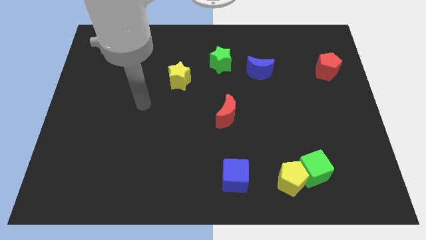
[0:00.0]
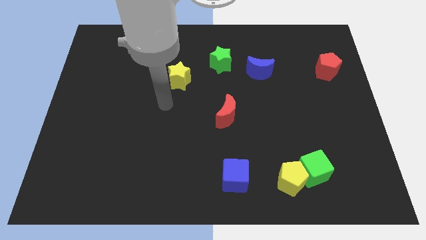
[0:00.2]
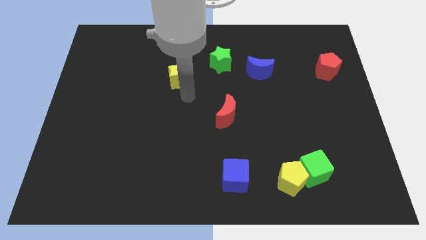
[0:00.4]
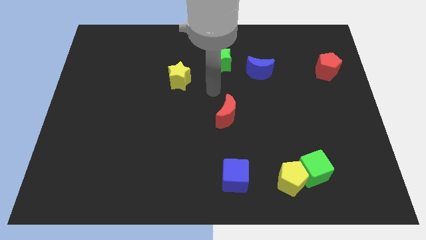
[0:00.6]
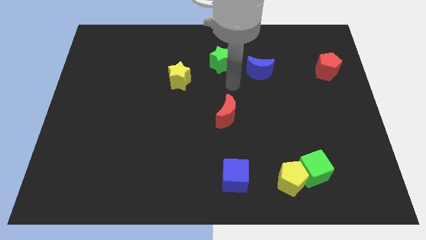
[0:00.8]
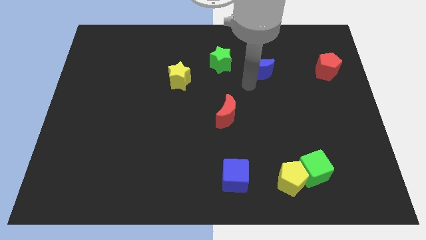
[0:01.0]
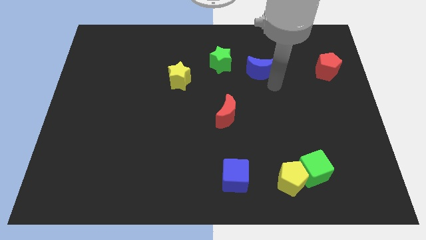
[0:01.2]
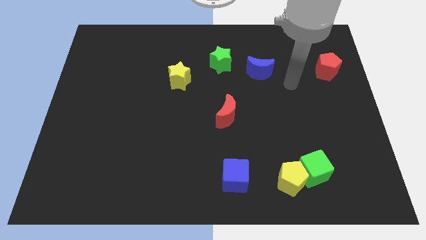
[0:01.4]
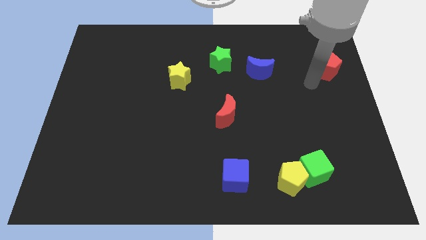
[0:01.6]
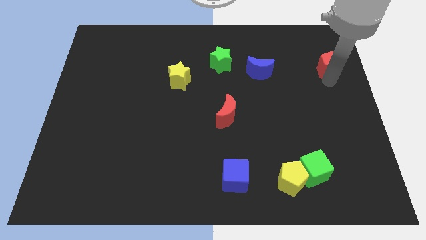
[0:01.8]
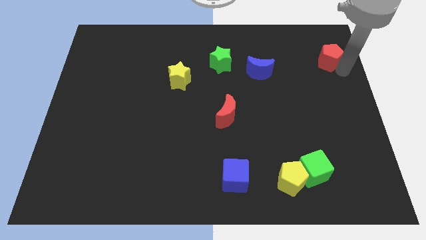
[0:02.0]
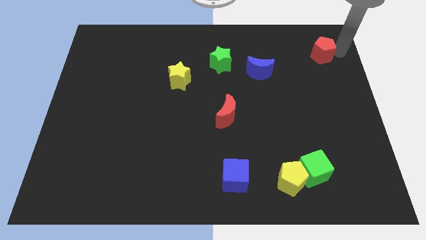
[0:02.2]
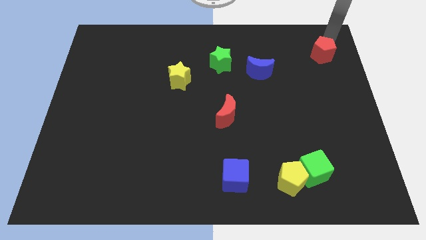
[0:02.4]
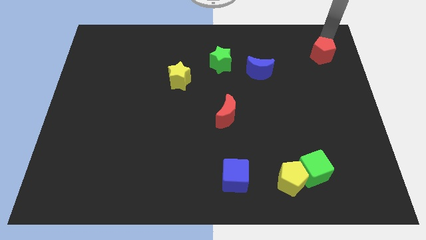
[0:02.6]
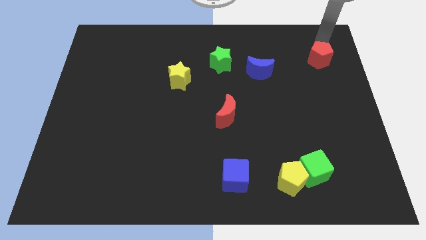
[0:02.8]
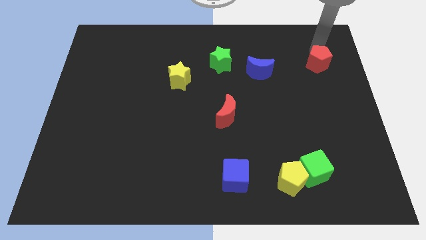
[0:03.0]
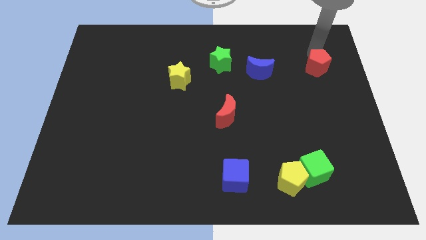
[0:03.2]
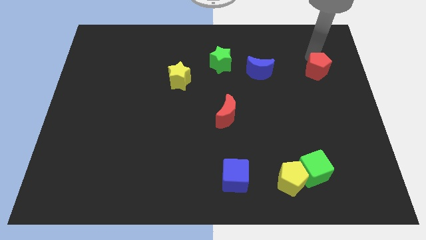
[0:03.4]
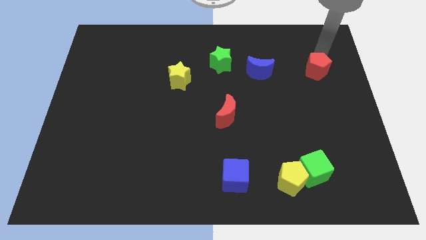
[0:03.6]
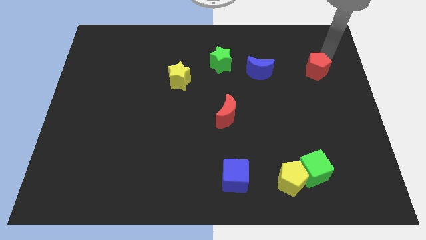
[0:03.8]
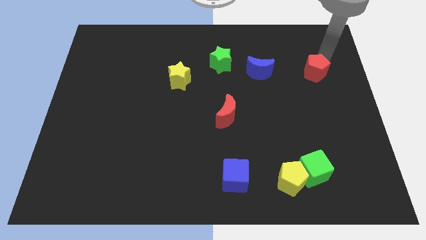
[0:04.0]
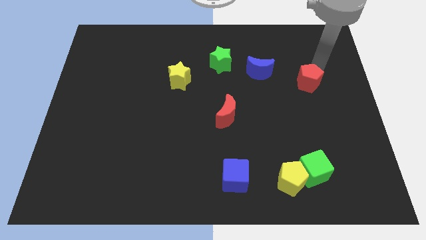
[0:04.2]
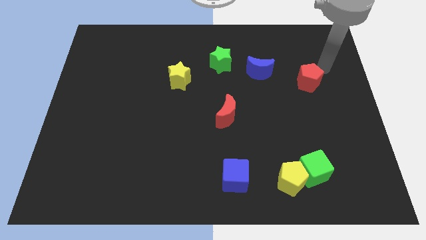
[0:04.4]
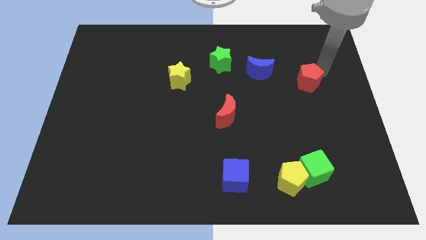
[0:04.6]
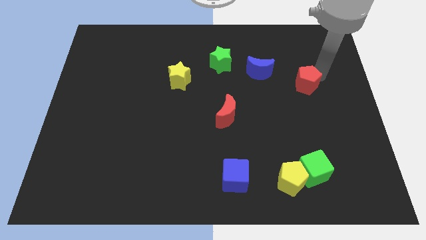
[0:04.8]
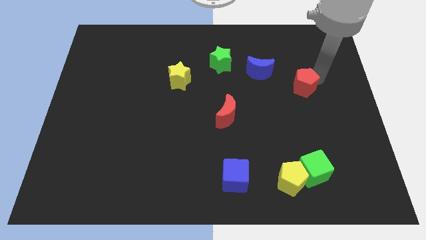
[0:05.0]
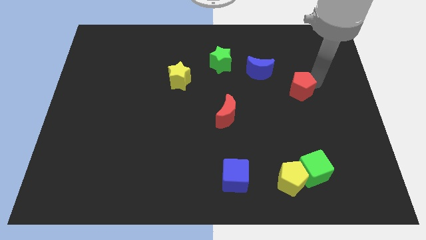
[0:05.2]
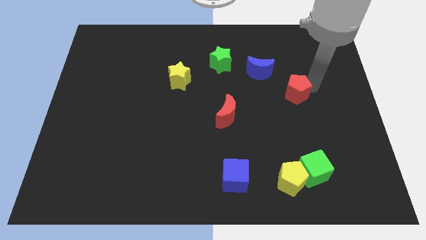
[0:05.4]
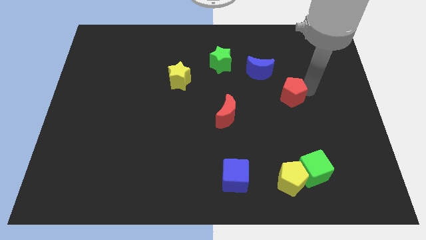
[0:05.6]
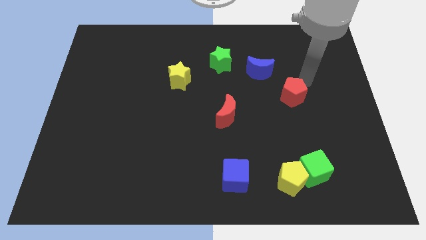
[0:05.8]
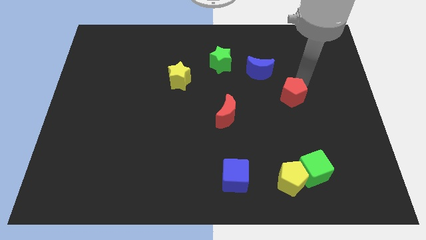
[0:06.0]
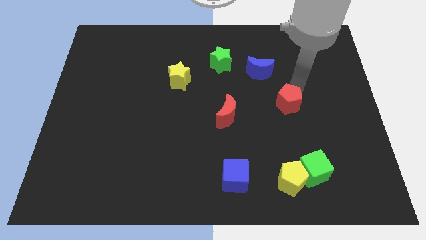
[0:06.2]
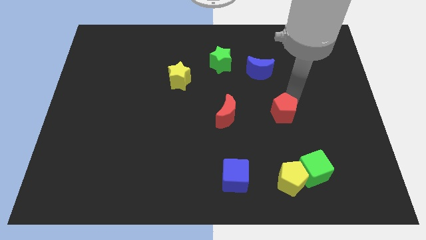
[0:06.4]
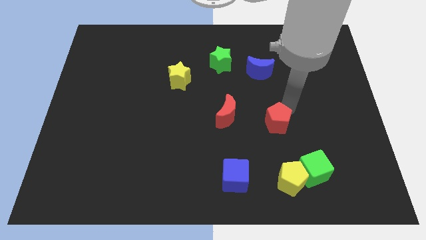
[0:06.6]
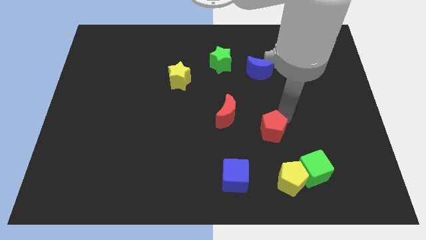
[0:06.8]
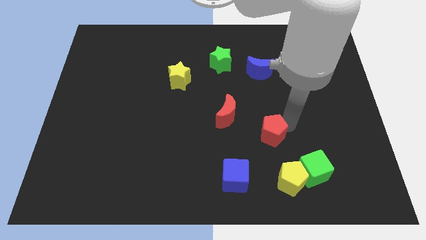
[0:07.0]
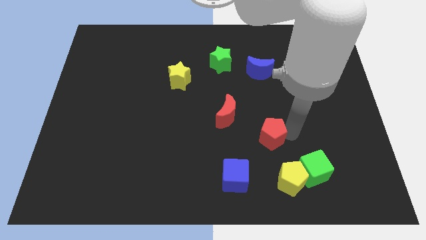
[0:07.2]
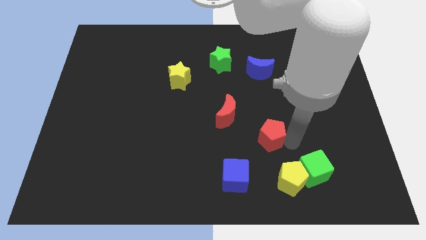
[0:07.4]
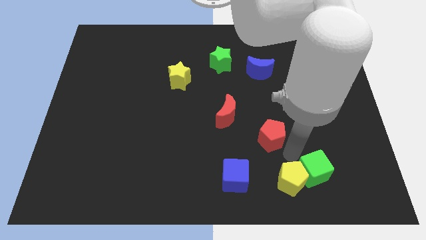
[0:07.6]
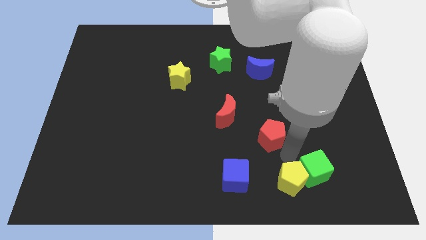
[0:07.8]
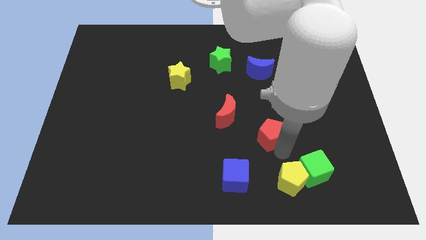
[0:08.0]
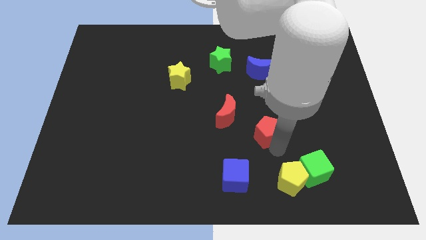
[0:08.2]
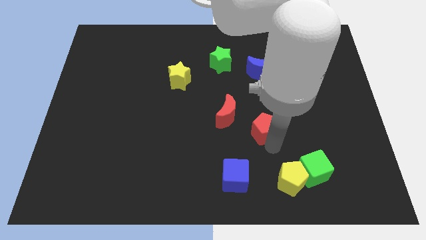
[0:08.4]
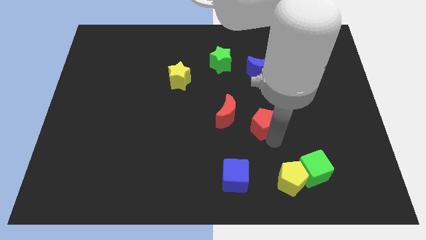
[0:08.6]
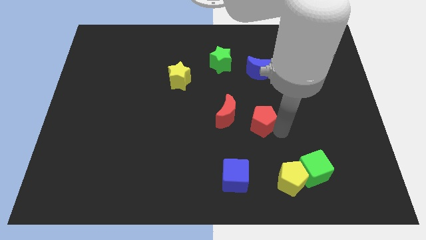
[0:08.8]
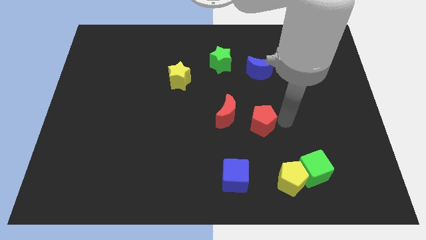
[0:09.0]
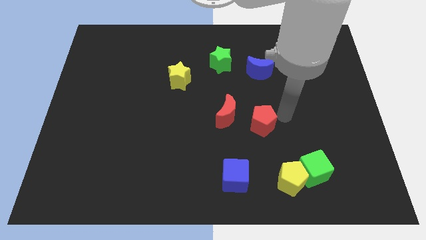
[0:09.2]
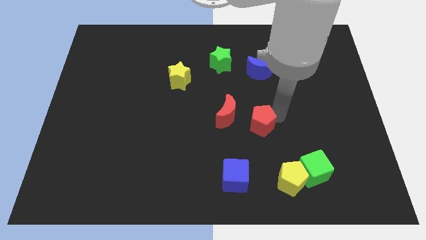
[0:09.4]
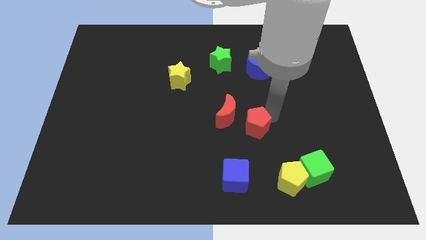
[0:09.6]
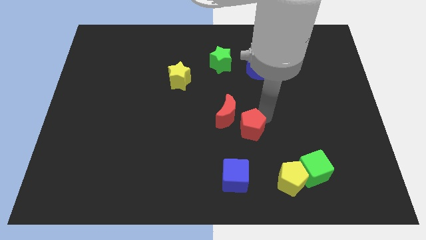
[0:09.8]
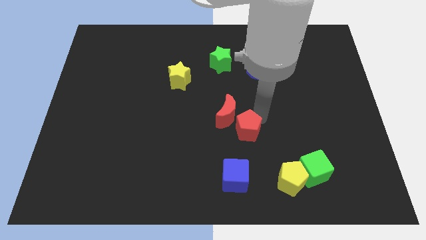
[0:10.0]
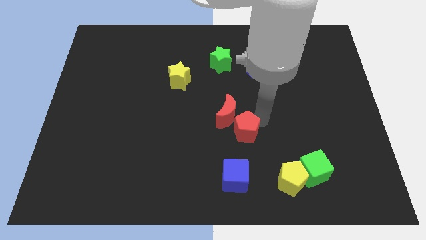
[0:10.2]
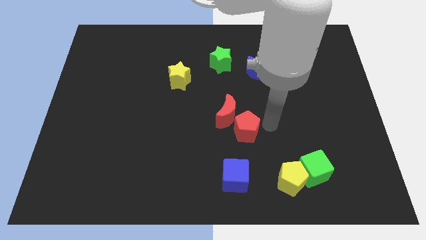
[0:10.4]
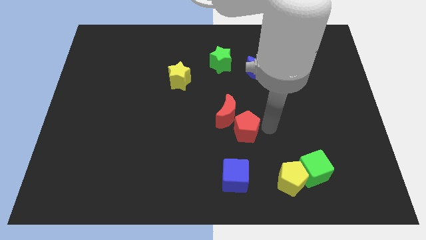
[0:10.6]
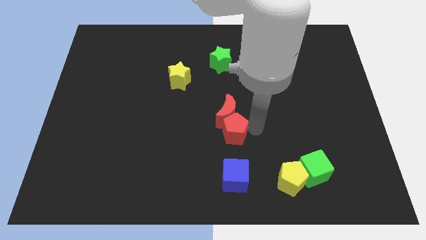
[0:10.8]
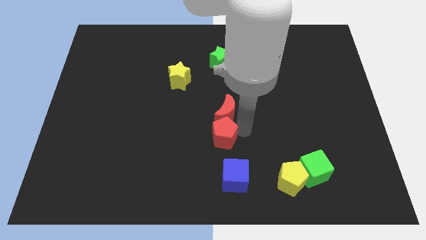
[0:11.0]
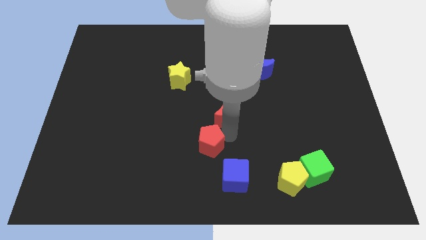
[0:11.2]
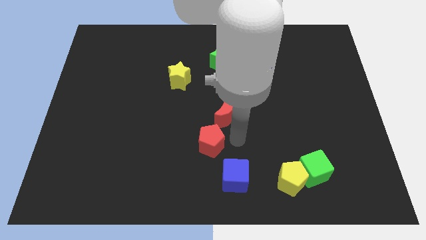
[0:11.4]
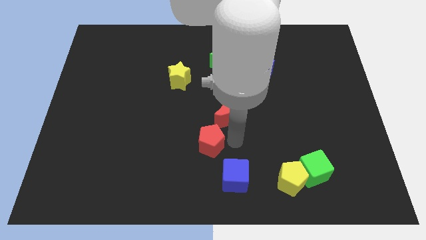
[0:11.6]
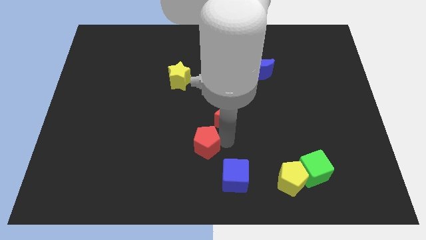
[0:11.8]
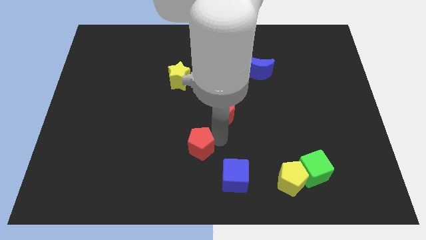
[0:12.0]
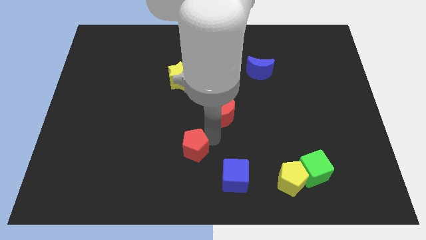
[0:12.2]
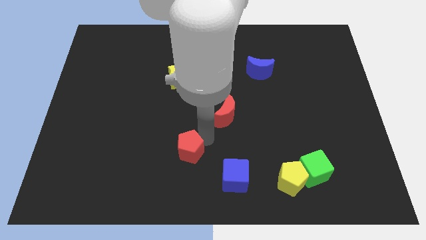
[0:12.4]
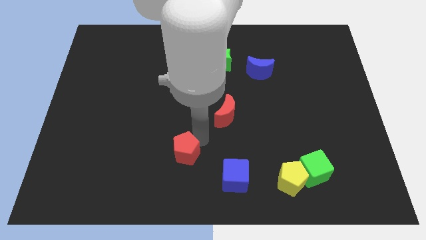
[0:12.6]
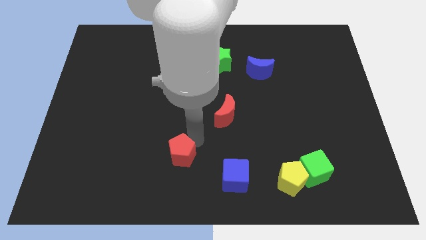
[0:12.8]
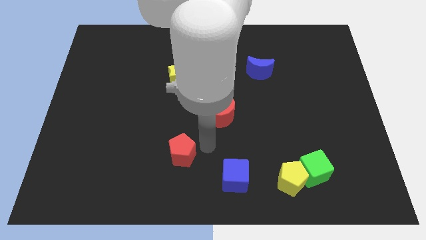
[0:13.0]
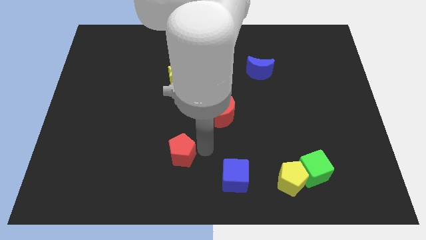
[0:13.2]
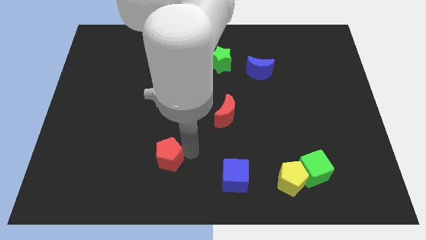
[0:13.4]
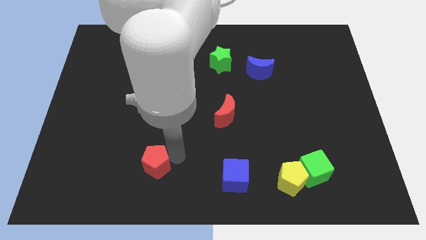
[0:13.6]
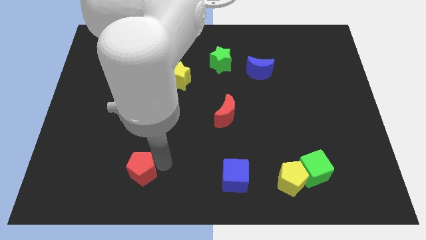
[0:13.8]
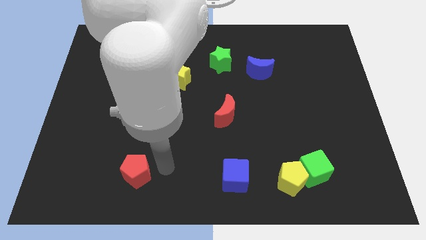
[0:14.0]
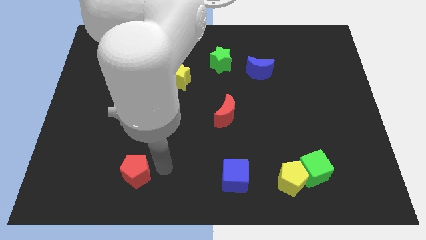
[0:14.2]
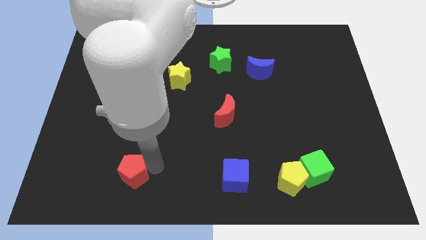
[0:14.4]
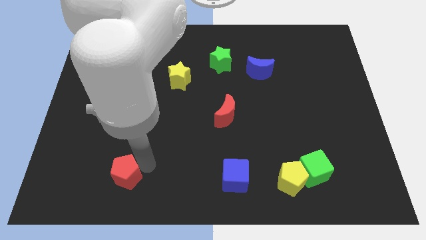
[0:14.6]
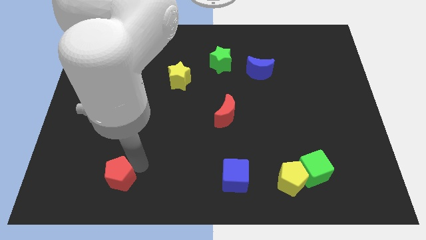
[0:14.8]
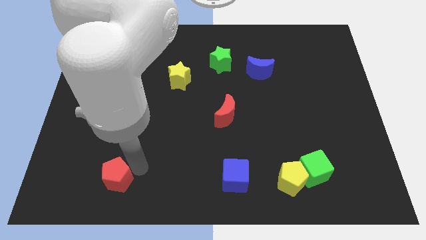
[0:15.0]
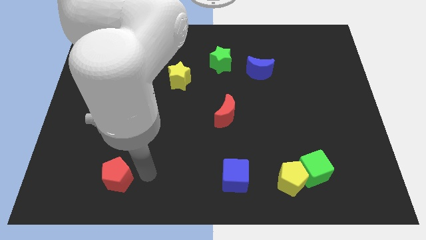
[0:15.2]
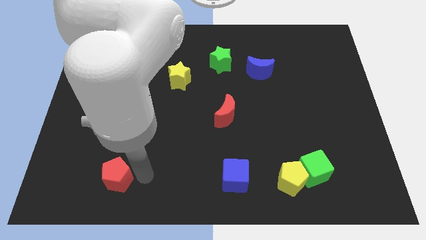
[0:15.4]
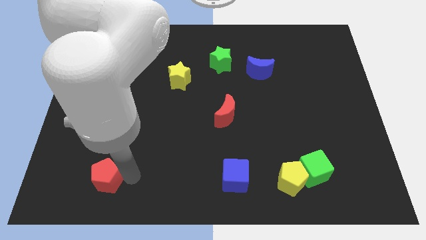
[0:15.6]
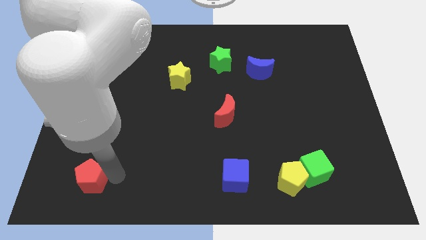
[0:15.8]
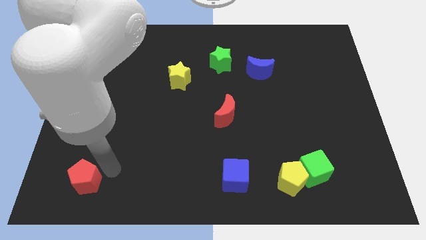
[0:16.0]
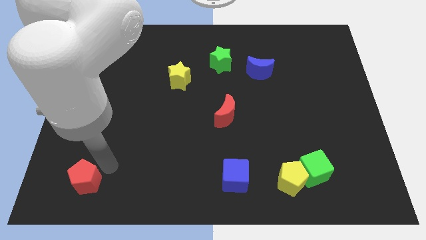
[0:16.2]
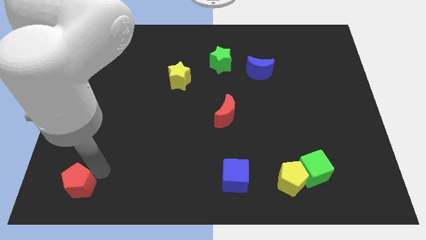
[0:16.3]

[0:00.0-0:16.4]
push the red pentagon to the bottom left of the board
